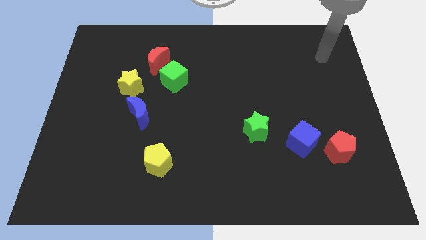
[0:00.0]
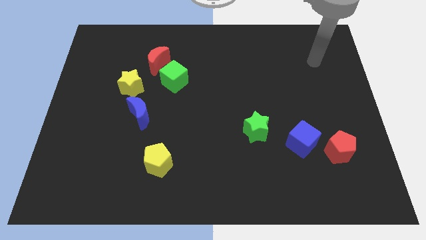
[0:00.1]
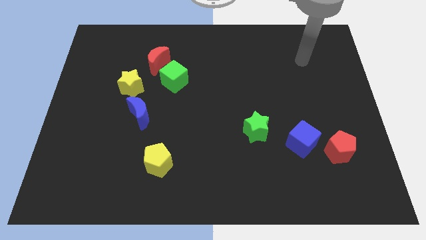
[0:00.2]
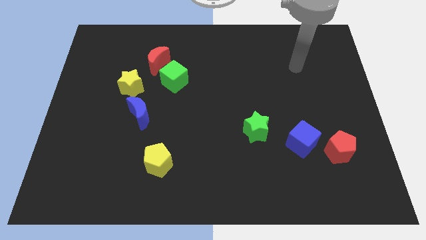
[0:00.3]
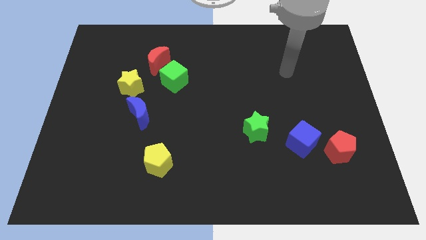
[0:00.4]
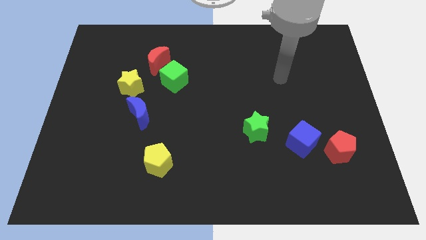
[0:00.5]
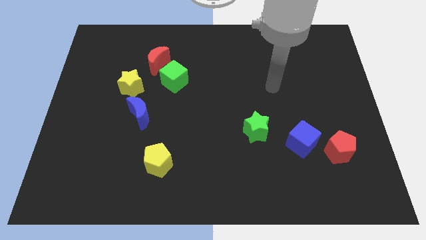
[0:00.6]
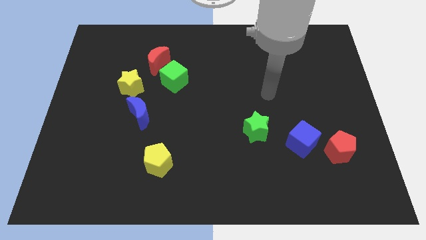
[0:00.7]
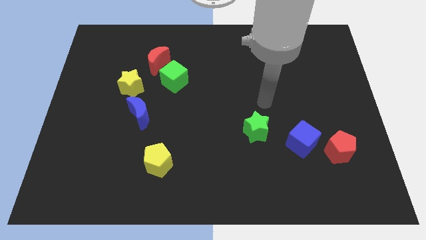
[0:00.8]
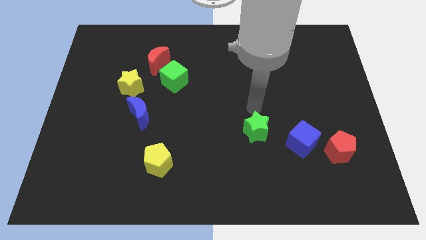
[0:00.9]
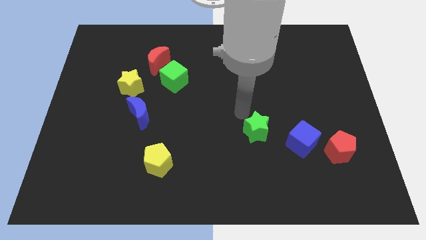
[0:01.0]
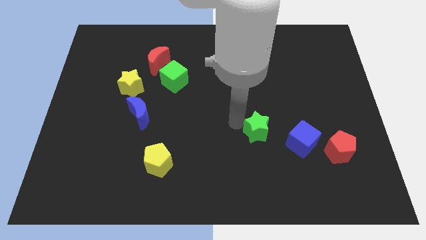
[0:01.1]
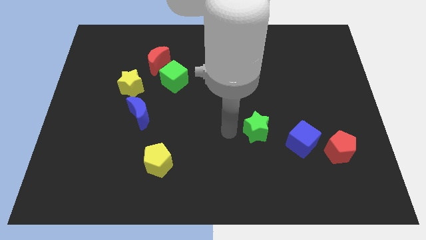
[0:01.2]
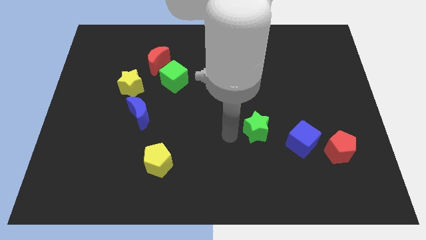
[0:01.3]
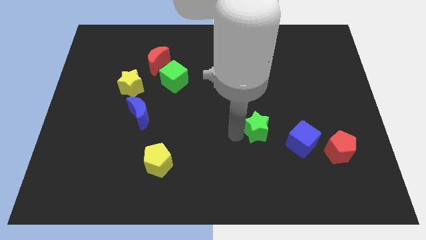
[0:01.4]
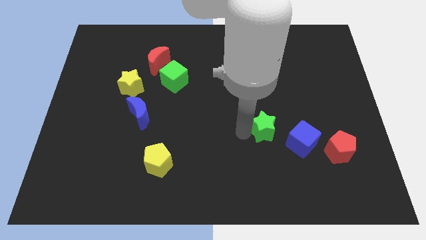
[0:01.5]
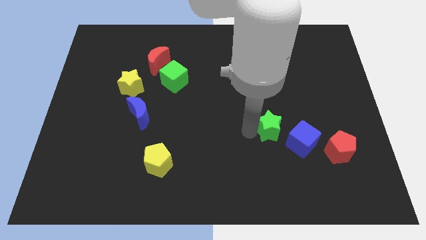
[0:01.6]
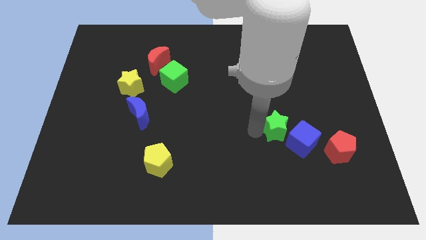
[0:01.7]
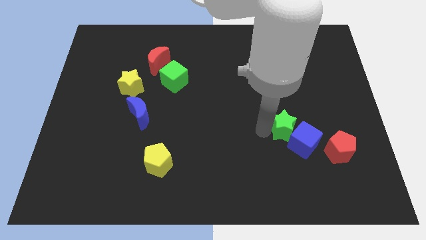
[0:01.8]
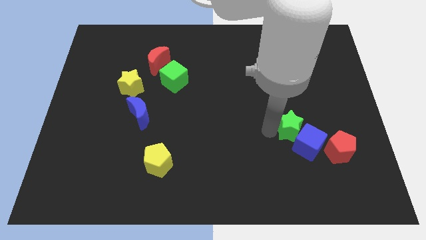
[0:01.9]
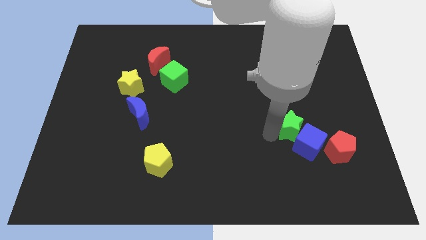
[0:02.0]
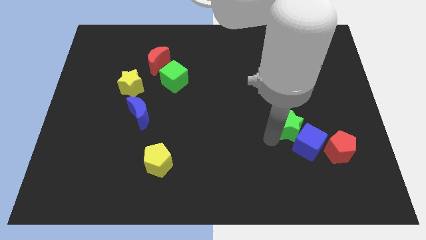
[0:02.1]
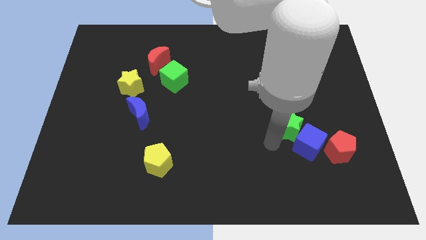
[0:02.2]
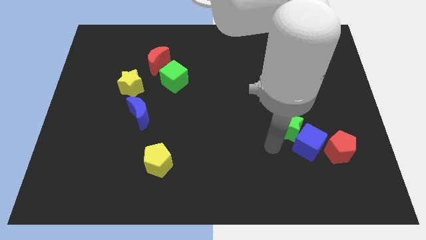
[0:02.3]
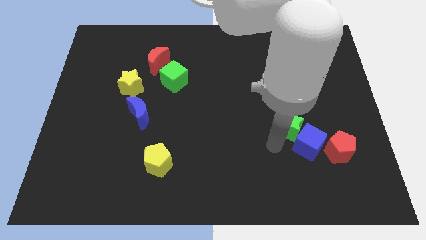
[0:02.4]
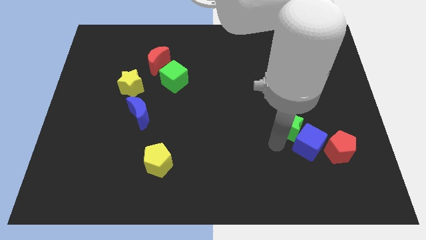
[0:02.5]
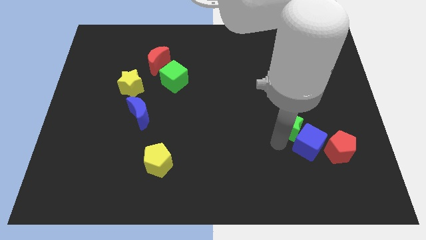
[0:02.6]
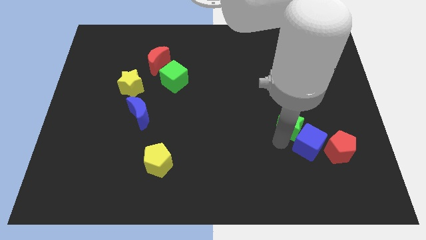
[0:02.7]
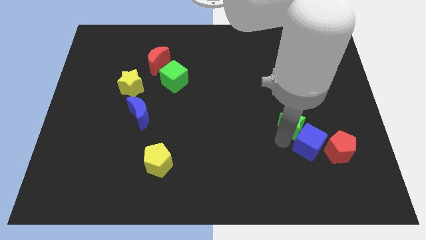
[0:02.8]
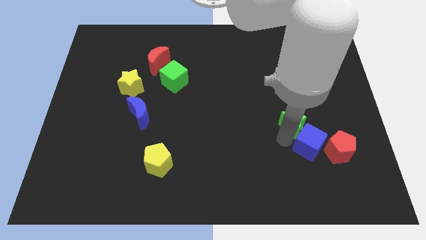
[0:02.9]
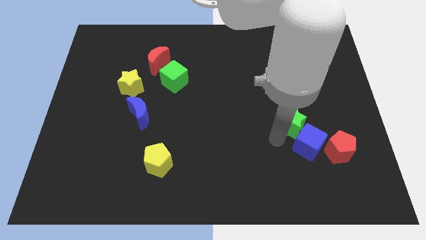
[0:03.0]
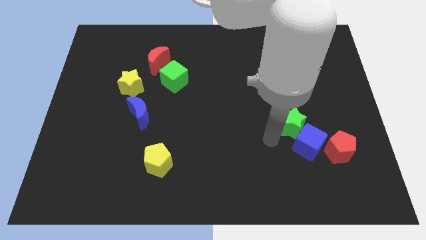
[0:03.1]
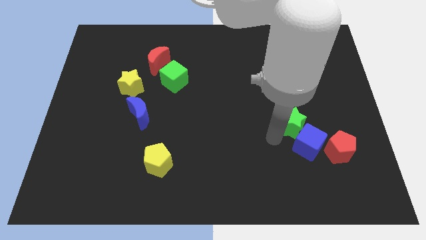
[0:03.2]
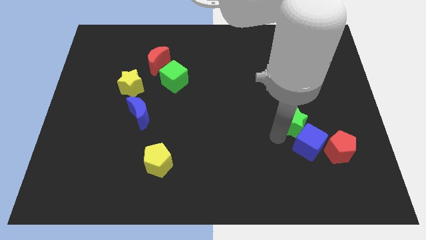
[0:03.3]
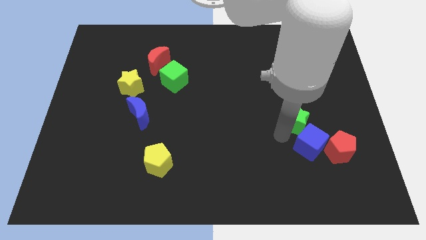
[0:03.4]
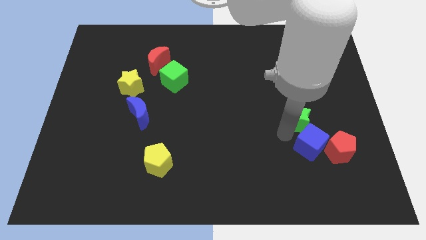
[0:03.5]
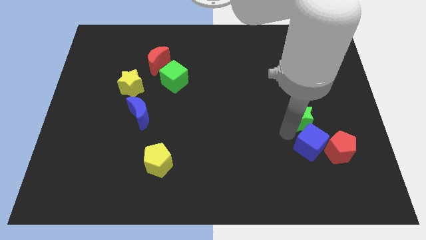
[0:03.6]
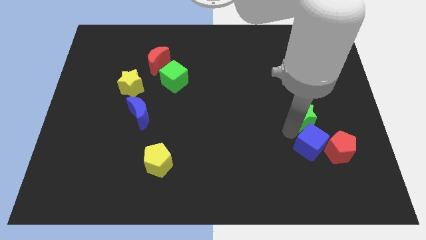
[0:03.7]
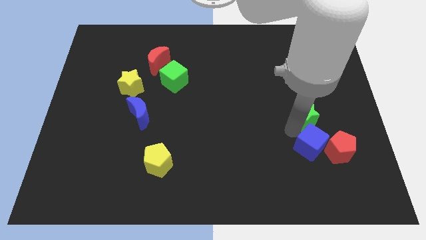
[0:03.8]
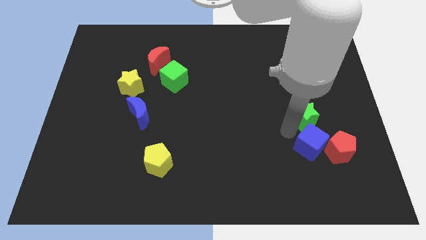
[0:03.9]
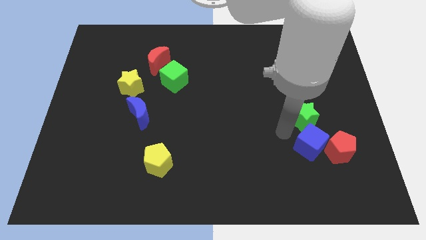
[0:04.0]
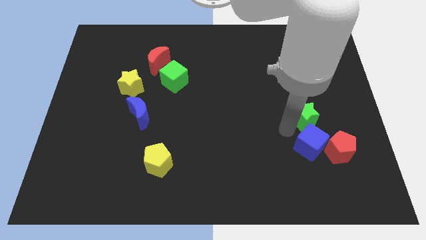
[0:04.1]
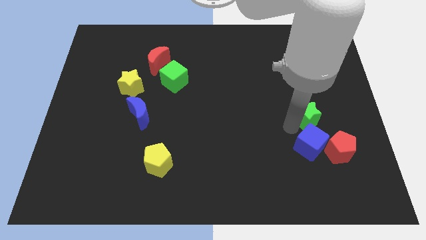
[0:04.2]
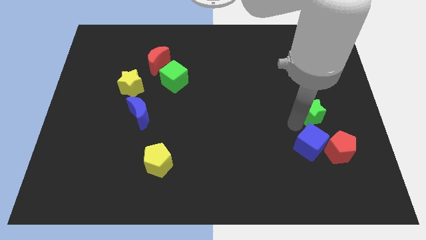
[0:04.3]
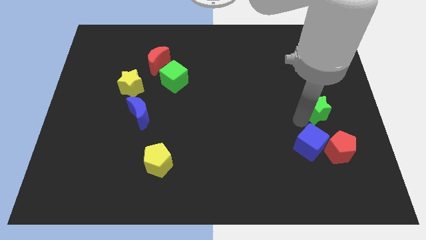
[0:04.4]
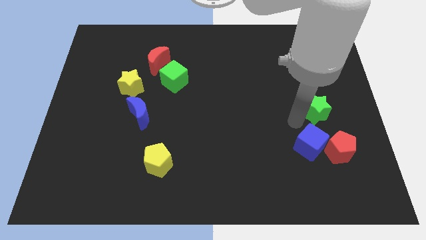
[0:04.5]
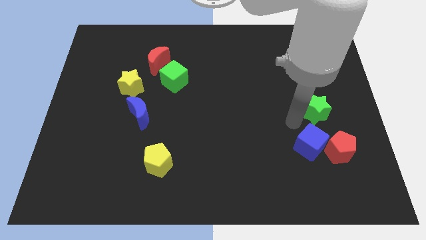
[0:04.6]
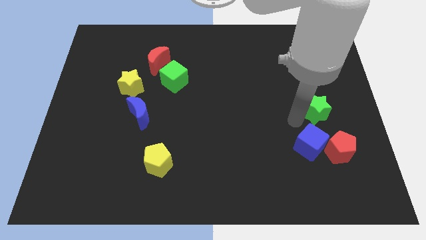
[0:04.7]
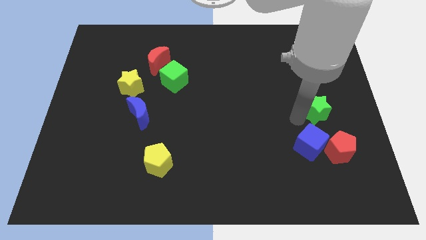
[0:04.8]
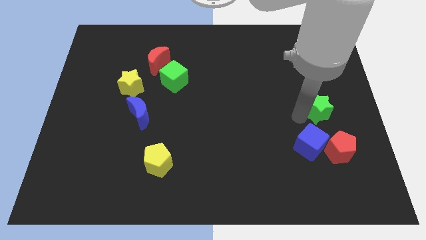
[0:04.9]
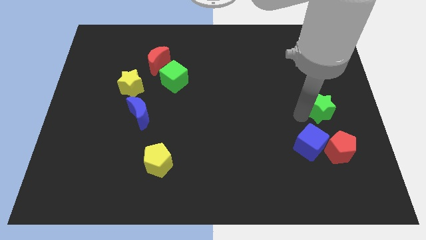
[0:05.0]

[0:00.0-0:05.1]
put the green star to the center right

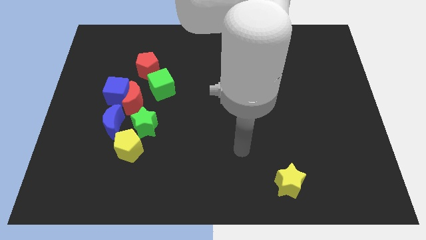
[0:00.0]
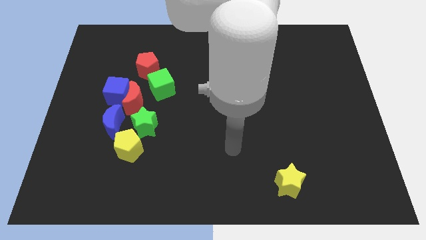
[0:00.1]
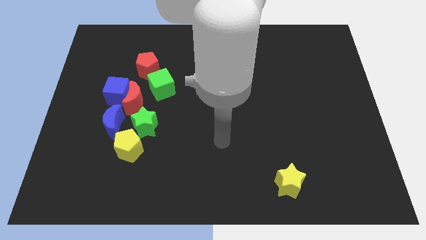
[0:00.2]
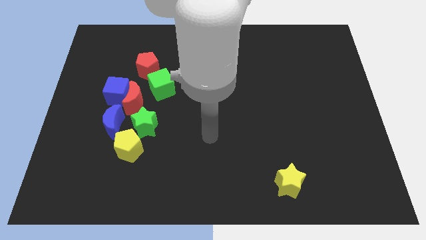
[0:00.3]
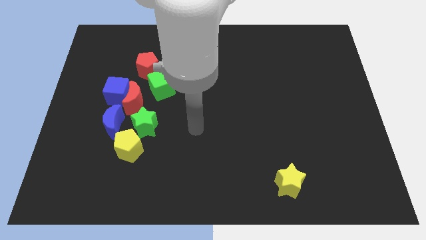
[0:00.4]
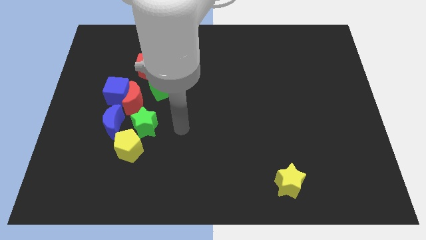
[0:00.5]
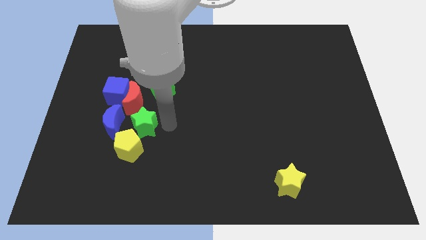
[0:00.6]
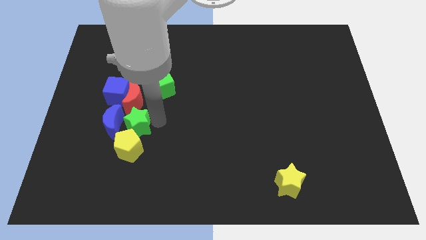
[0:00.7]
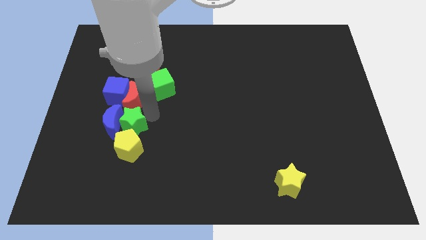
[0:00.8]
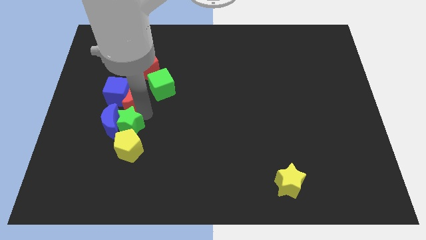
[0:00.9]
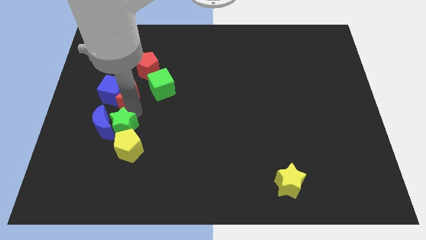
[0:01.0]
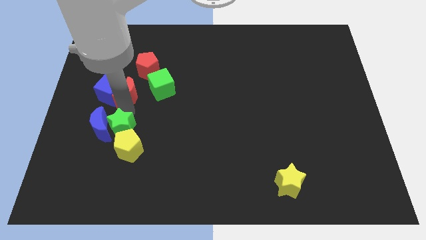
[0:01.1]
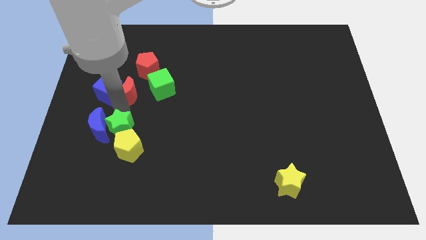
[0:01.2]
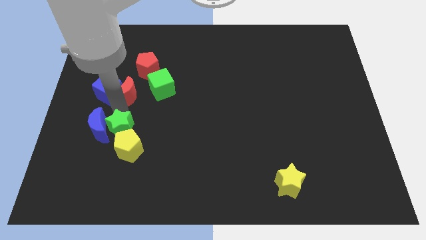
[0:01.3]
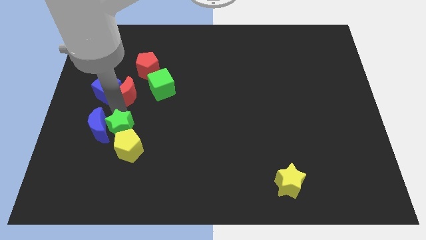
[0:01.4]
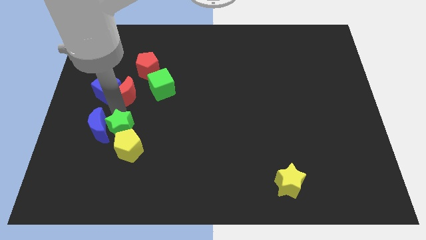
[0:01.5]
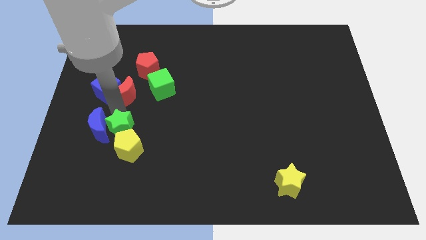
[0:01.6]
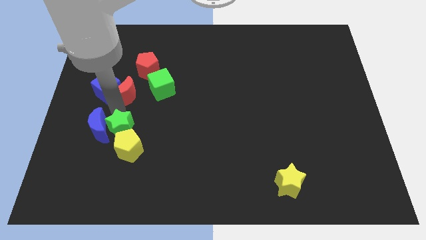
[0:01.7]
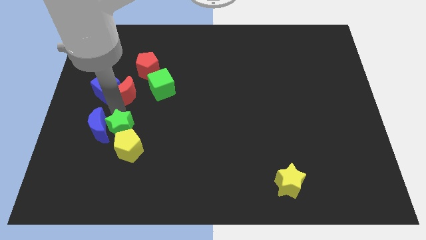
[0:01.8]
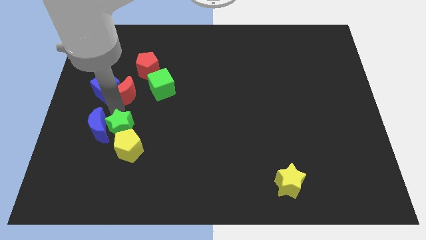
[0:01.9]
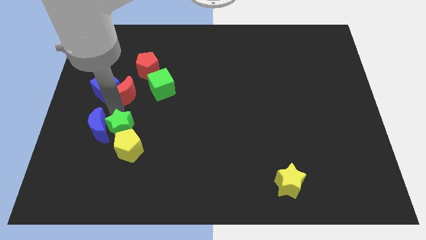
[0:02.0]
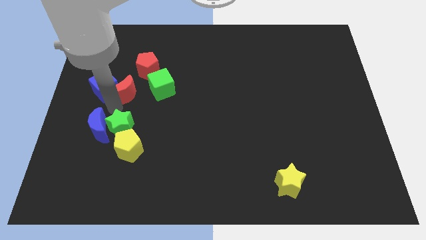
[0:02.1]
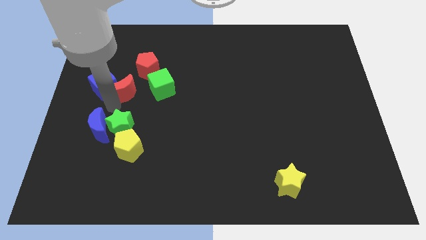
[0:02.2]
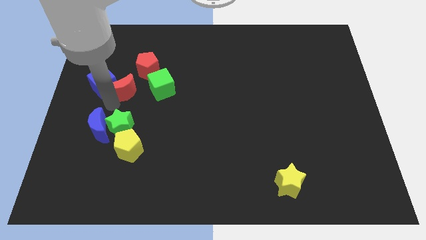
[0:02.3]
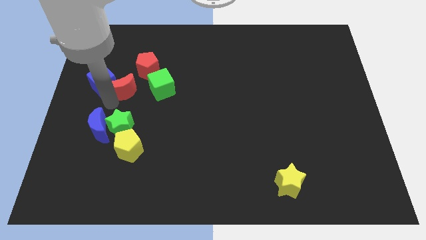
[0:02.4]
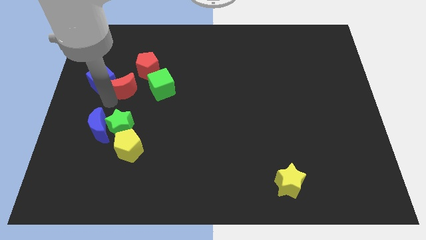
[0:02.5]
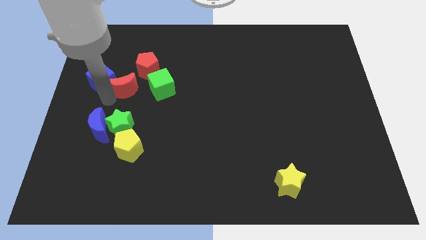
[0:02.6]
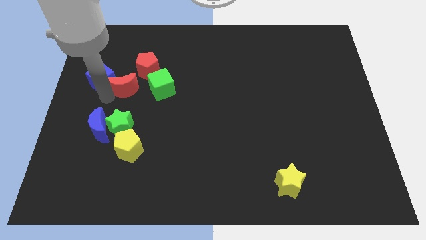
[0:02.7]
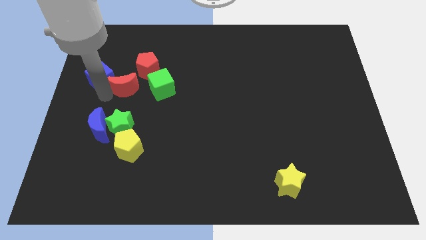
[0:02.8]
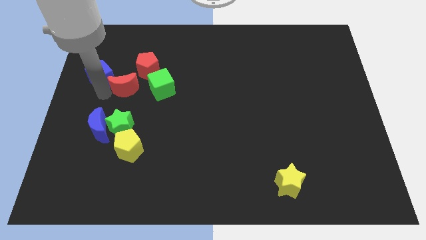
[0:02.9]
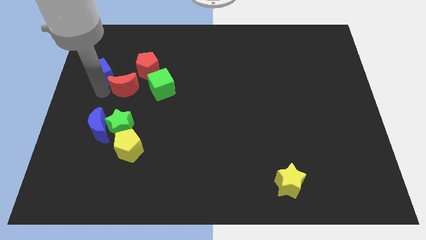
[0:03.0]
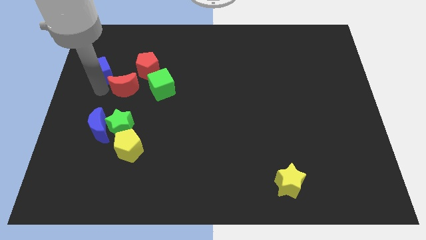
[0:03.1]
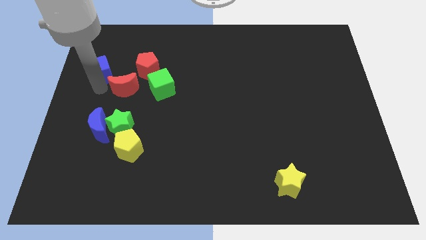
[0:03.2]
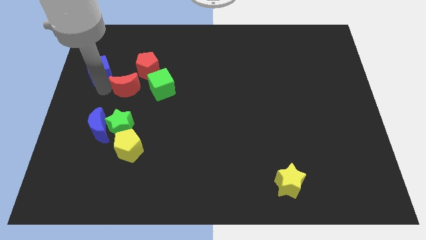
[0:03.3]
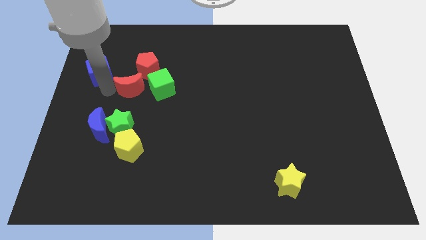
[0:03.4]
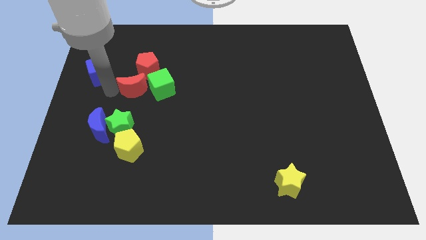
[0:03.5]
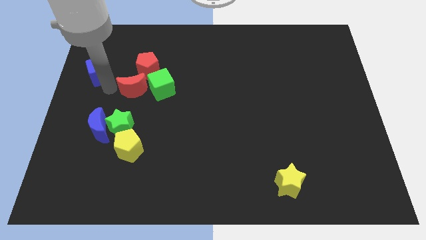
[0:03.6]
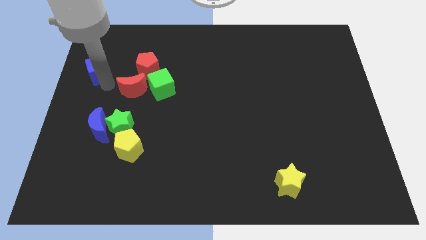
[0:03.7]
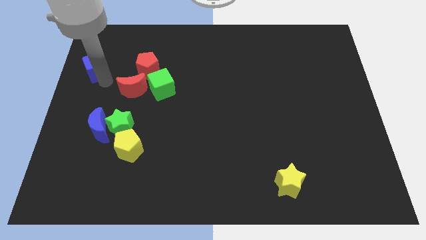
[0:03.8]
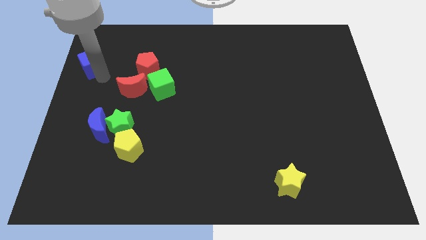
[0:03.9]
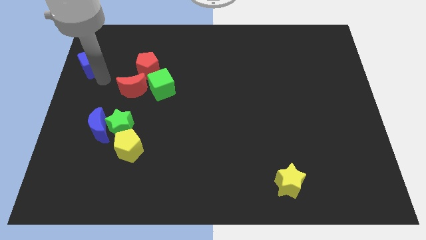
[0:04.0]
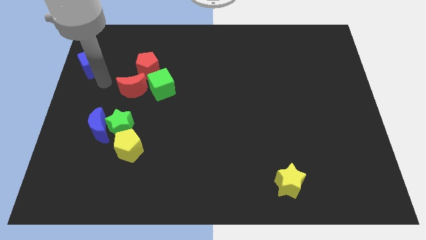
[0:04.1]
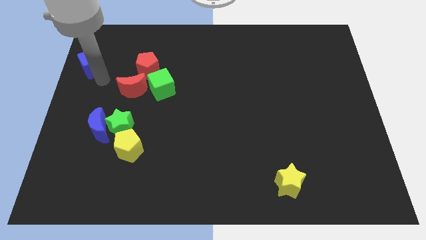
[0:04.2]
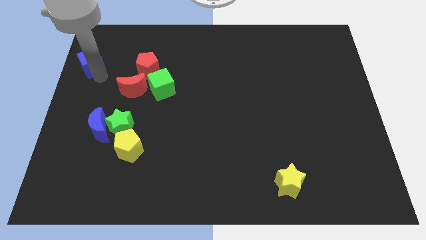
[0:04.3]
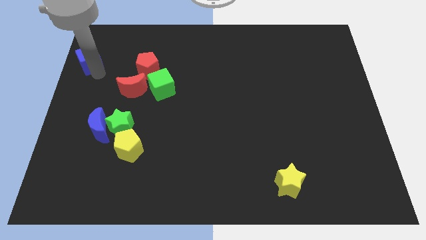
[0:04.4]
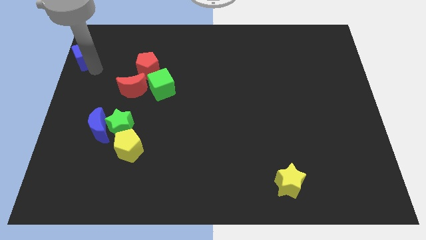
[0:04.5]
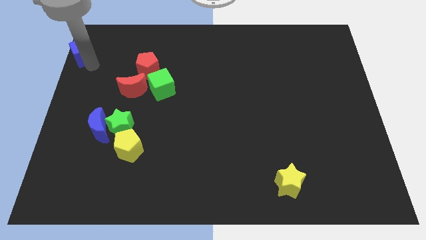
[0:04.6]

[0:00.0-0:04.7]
slide the blue cube to the top left corner
